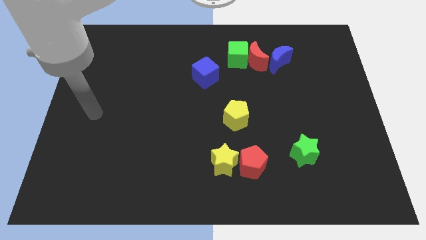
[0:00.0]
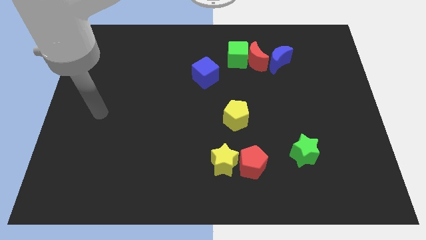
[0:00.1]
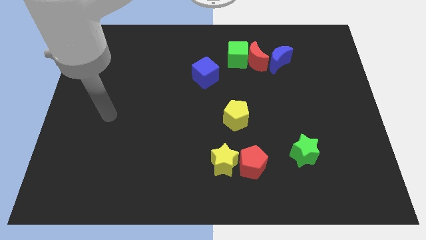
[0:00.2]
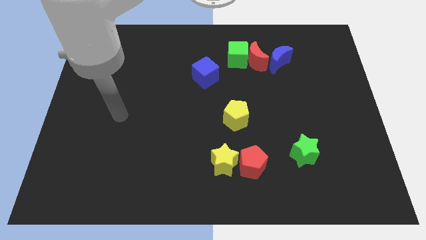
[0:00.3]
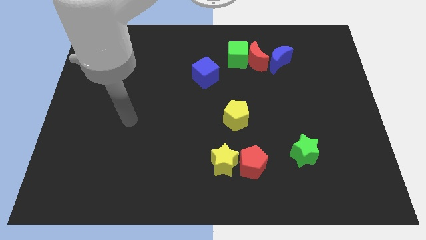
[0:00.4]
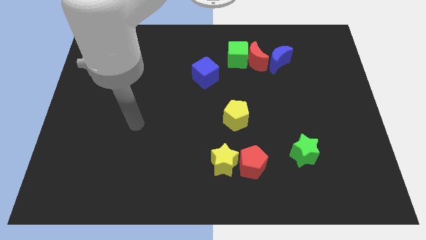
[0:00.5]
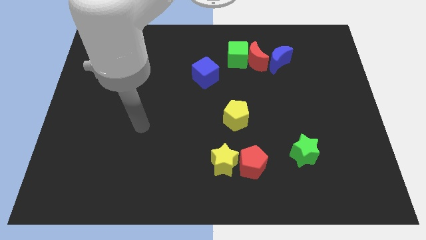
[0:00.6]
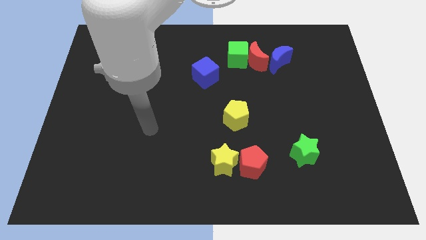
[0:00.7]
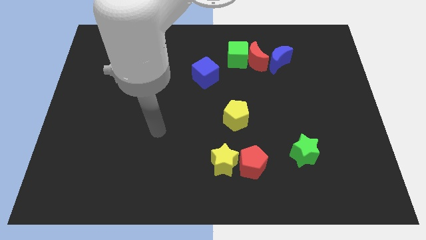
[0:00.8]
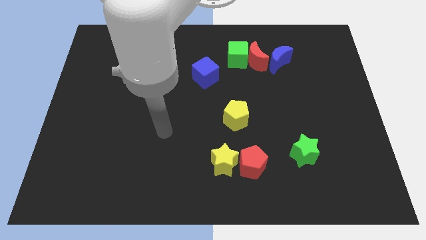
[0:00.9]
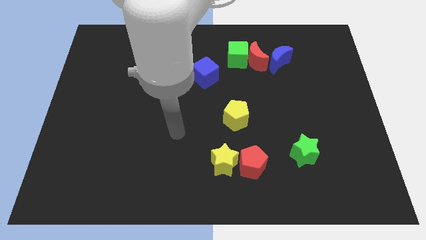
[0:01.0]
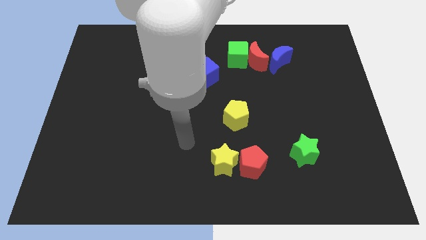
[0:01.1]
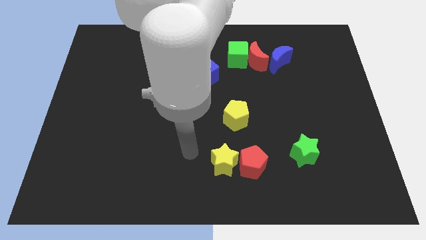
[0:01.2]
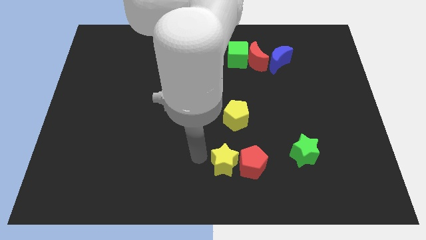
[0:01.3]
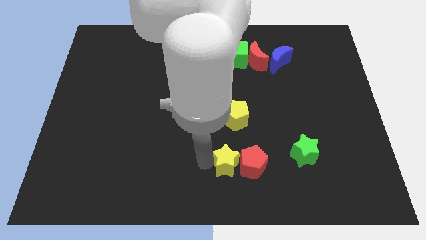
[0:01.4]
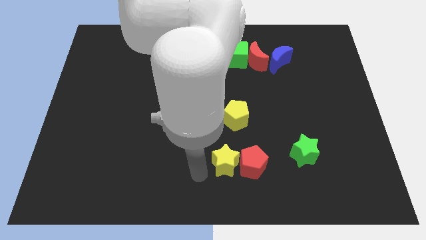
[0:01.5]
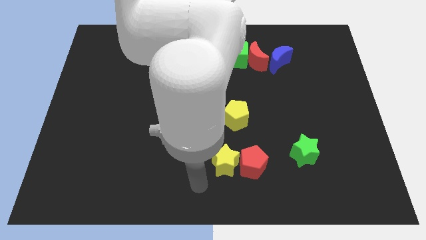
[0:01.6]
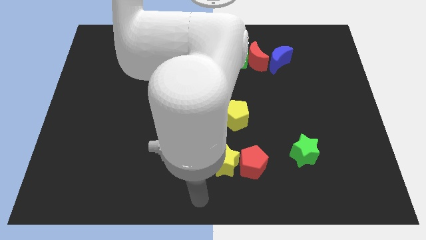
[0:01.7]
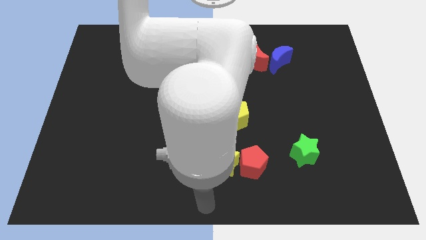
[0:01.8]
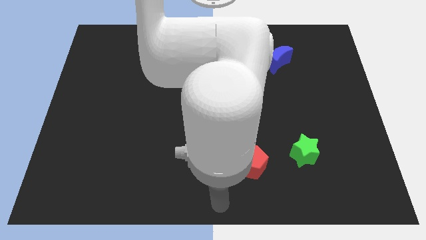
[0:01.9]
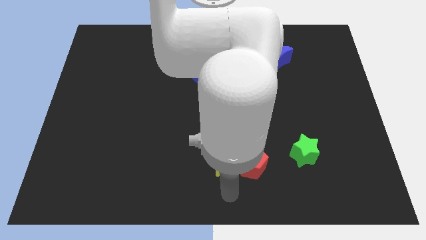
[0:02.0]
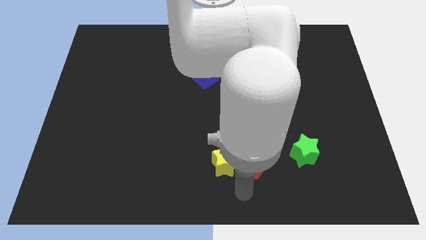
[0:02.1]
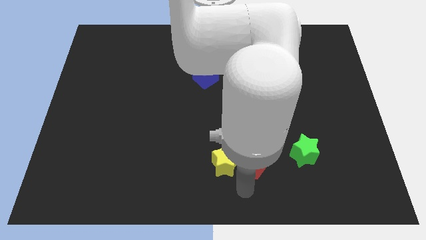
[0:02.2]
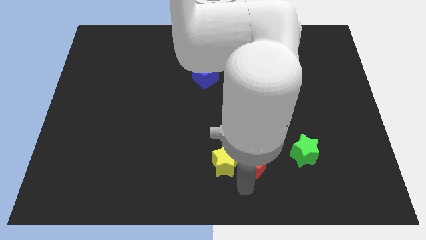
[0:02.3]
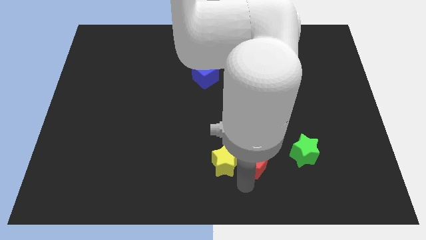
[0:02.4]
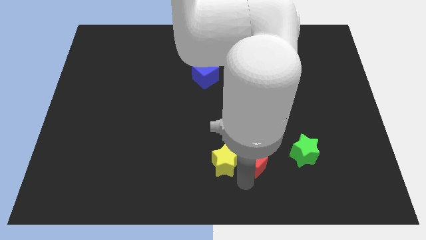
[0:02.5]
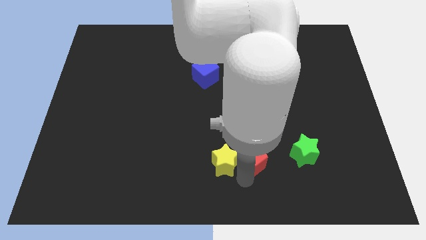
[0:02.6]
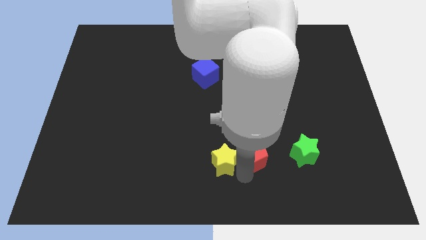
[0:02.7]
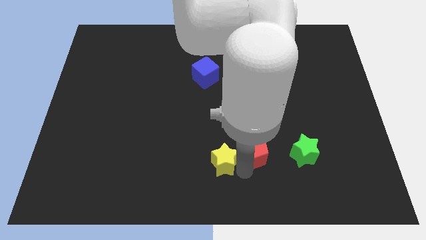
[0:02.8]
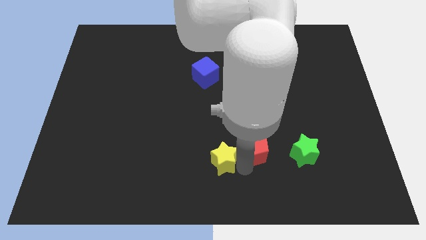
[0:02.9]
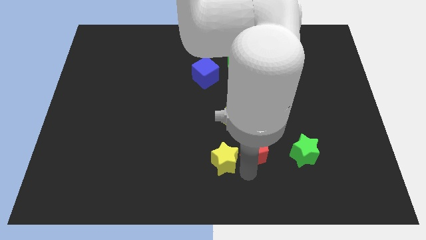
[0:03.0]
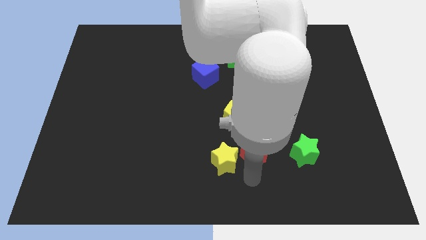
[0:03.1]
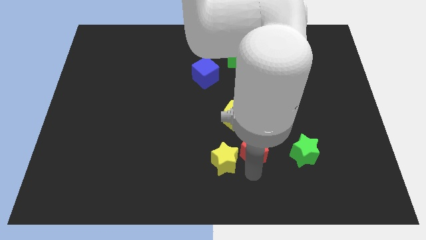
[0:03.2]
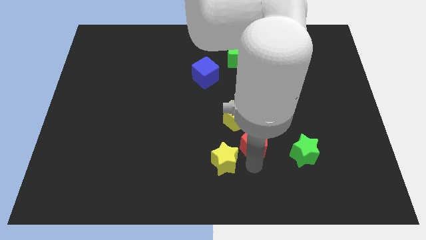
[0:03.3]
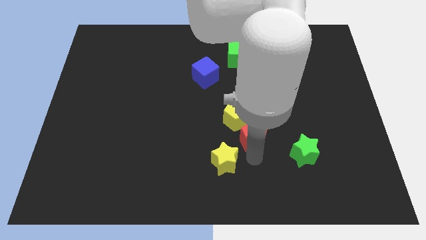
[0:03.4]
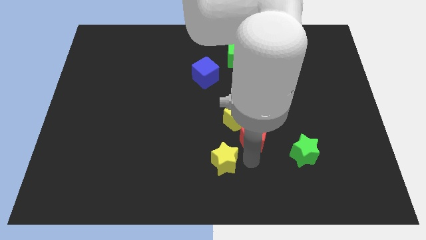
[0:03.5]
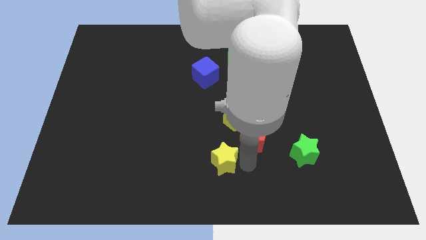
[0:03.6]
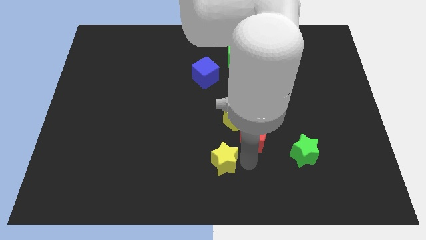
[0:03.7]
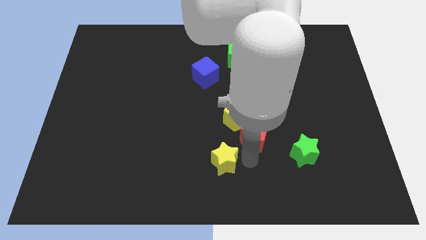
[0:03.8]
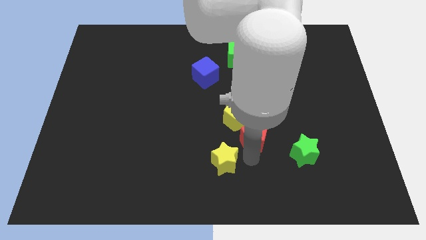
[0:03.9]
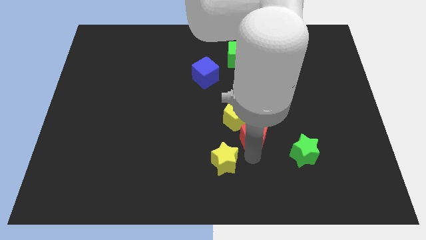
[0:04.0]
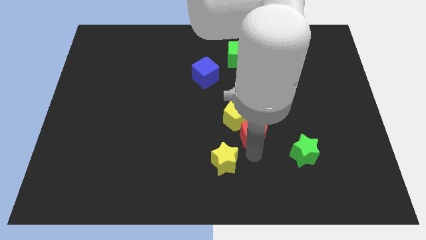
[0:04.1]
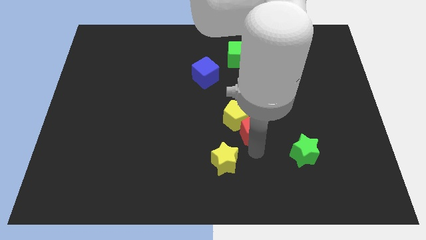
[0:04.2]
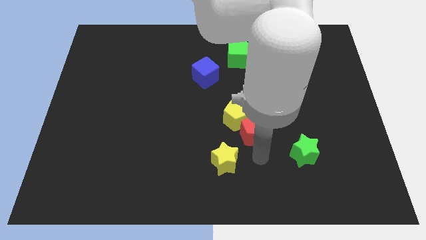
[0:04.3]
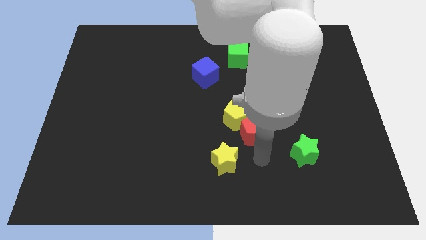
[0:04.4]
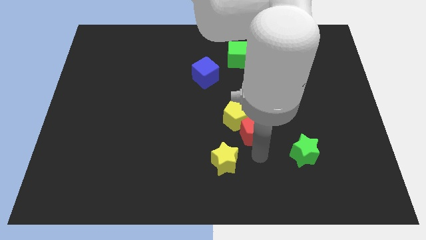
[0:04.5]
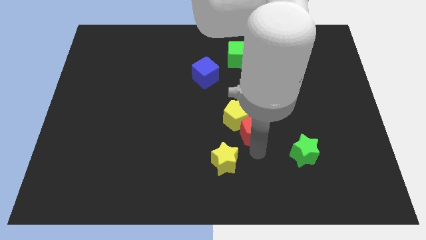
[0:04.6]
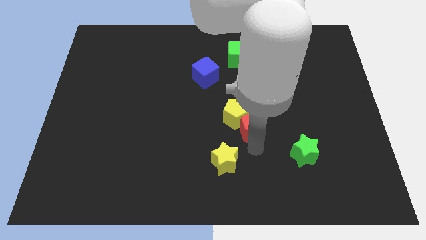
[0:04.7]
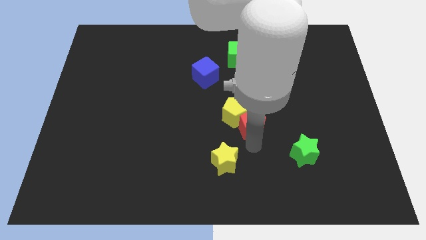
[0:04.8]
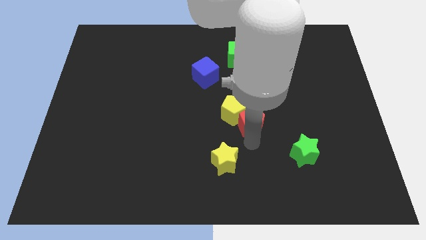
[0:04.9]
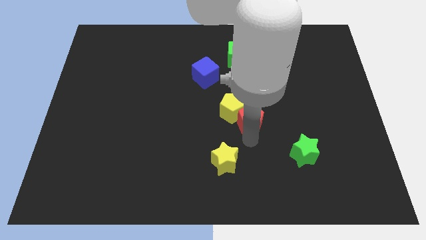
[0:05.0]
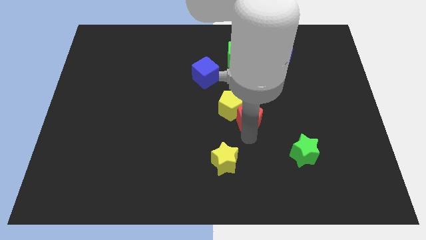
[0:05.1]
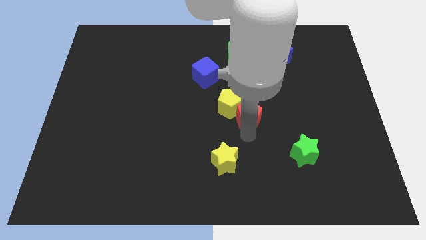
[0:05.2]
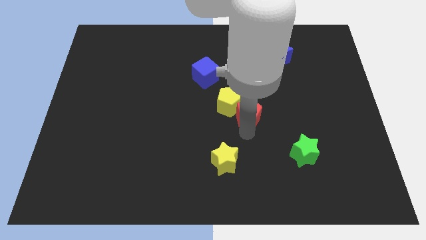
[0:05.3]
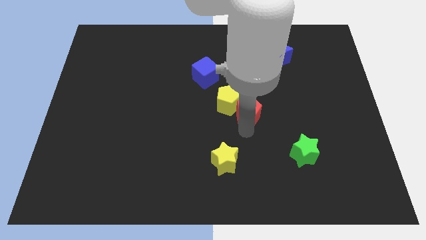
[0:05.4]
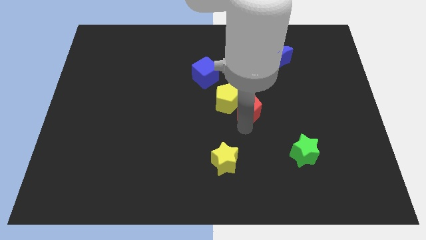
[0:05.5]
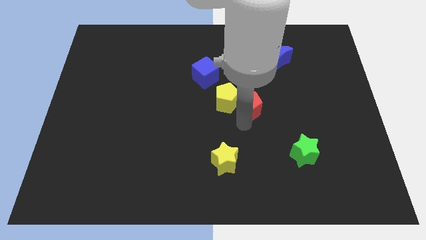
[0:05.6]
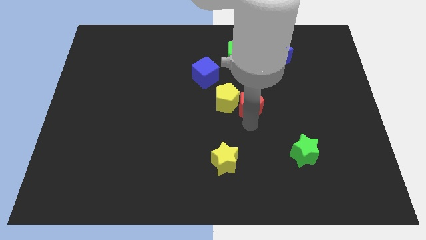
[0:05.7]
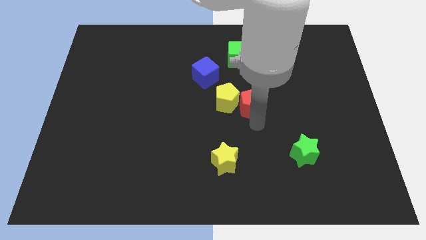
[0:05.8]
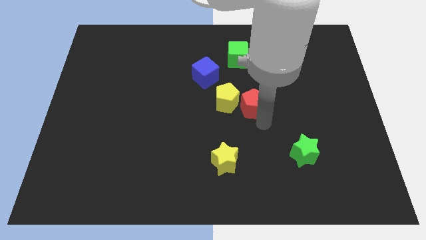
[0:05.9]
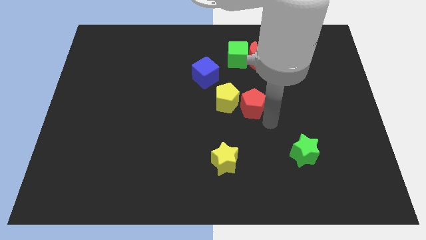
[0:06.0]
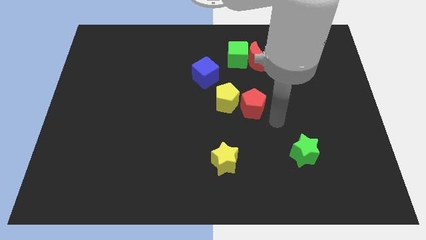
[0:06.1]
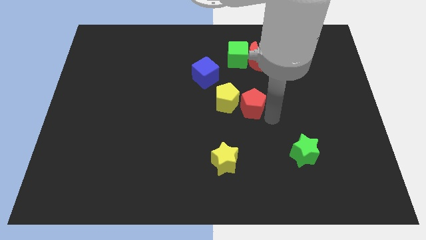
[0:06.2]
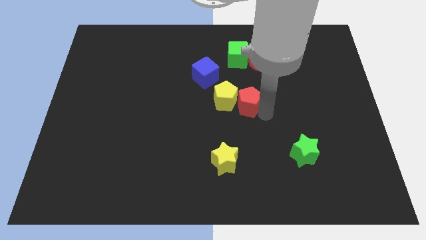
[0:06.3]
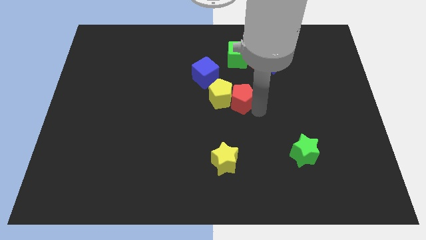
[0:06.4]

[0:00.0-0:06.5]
slide the red pentagon to the bottom right of the blue cube
